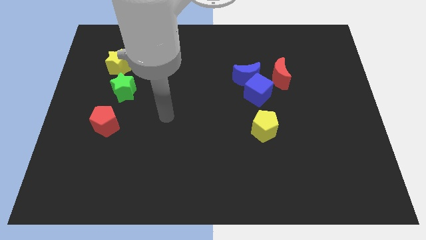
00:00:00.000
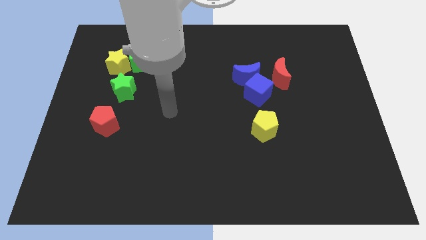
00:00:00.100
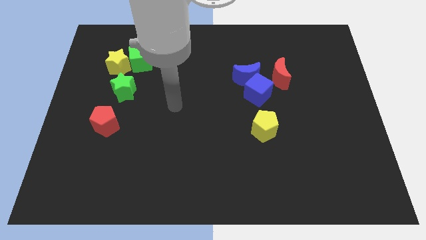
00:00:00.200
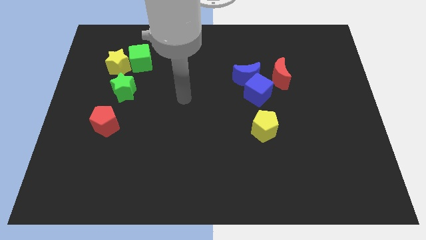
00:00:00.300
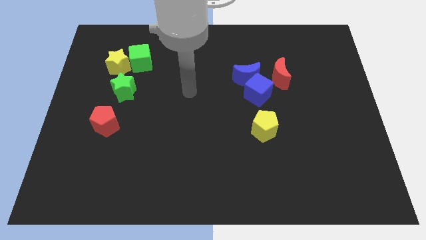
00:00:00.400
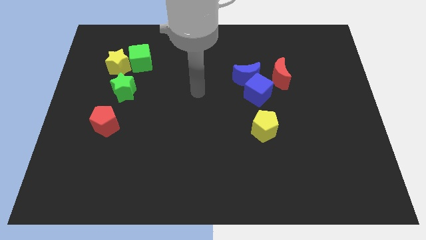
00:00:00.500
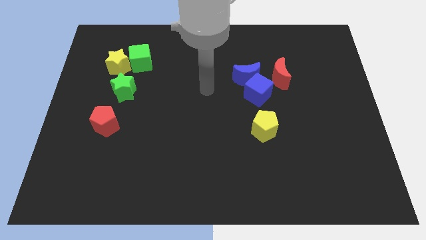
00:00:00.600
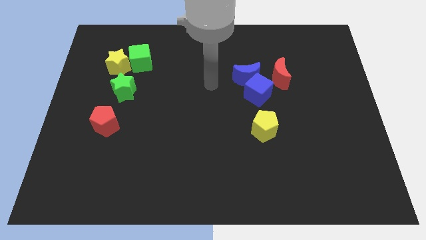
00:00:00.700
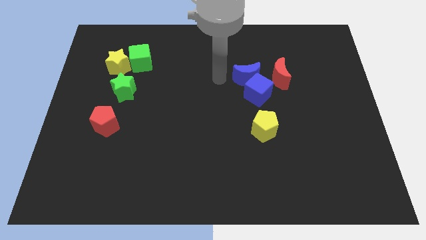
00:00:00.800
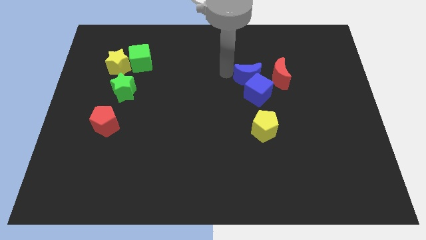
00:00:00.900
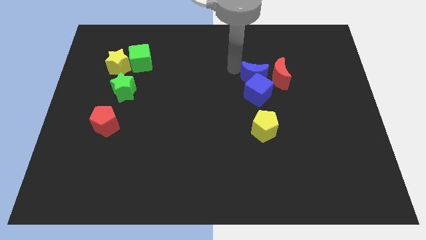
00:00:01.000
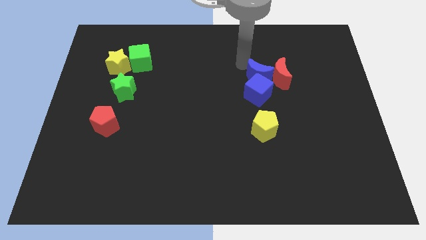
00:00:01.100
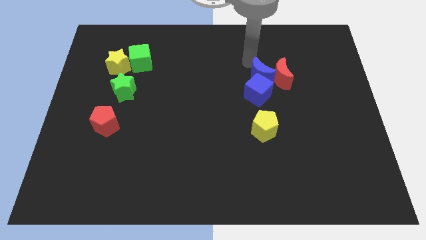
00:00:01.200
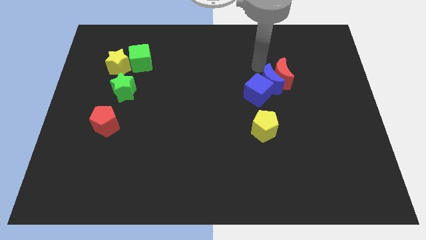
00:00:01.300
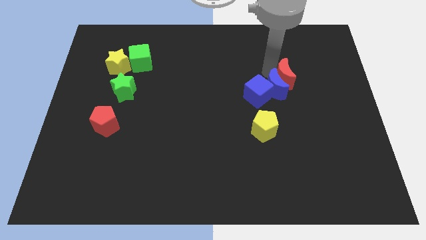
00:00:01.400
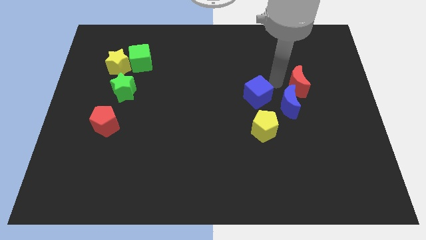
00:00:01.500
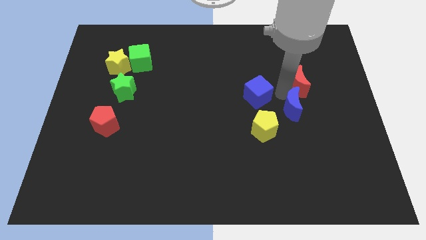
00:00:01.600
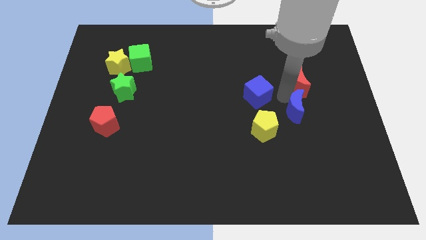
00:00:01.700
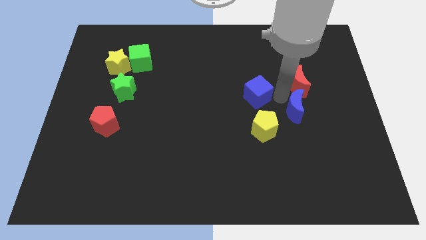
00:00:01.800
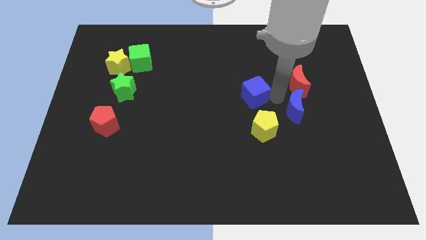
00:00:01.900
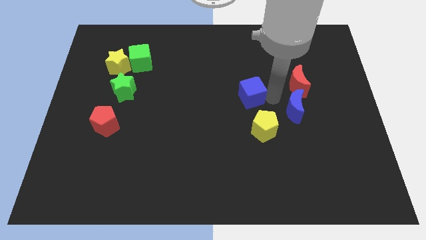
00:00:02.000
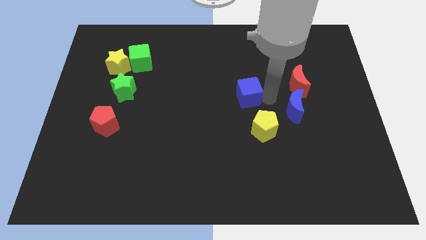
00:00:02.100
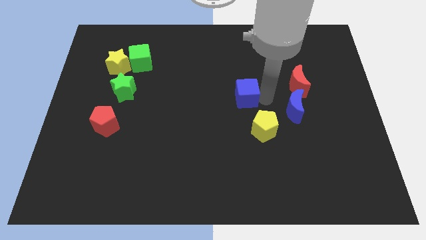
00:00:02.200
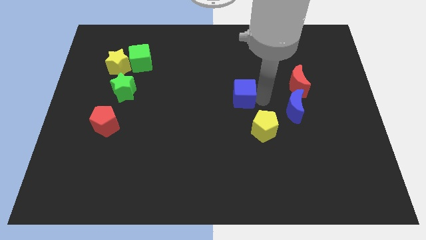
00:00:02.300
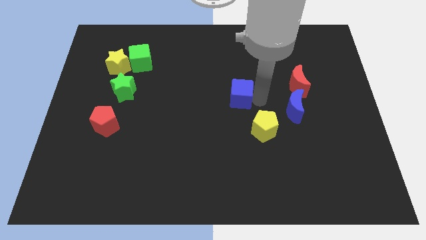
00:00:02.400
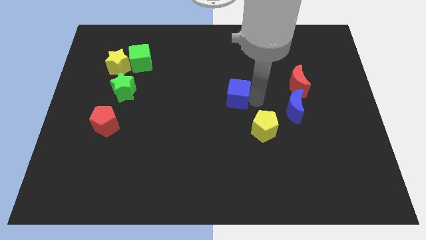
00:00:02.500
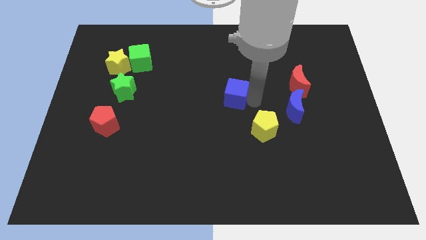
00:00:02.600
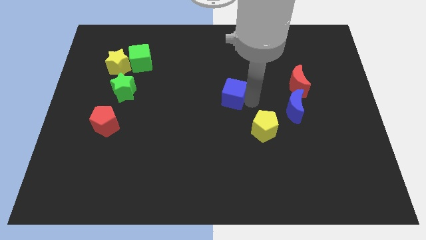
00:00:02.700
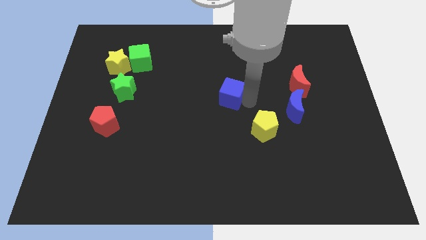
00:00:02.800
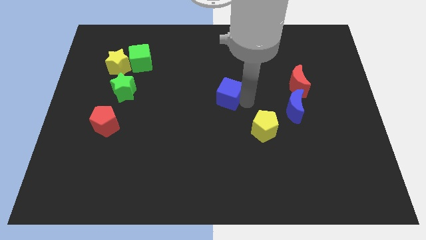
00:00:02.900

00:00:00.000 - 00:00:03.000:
slide the blue cube to the left a bit

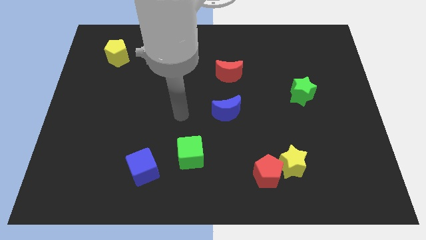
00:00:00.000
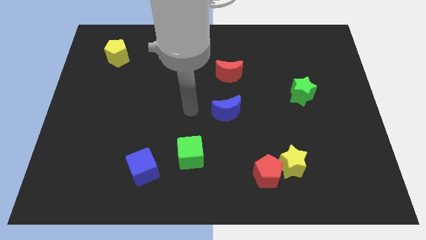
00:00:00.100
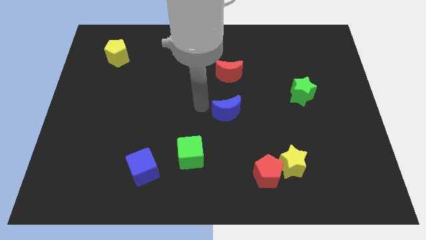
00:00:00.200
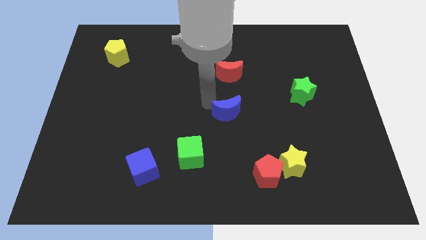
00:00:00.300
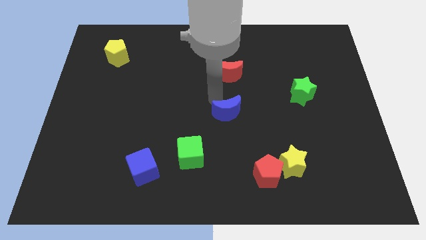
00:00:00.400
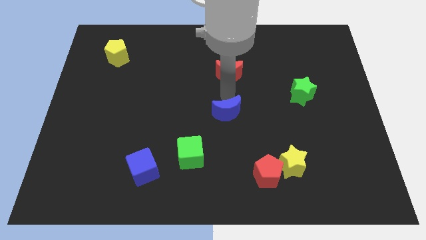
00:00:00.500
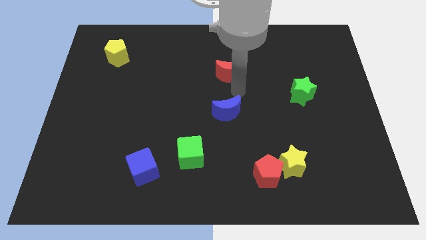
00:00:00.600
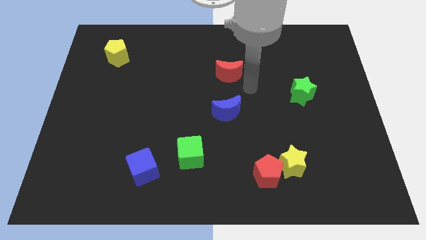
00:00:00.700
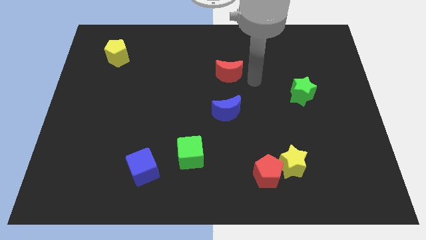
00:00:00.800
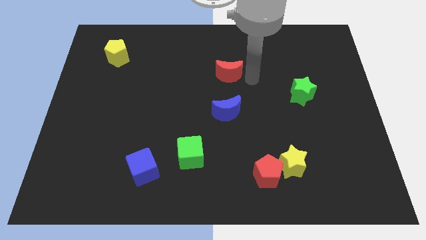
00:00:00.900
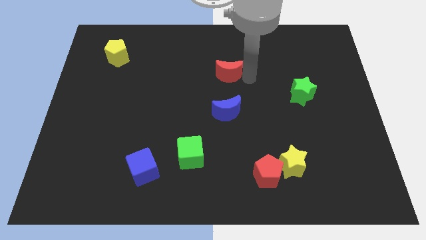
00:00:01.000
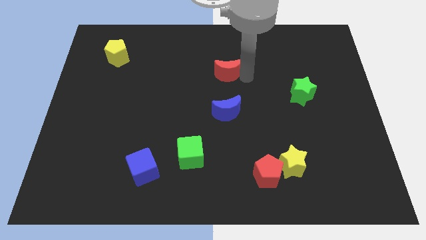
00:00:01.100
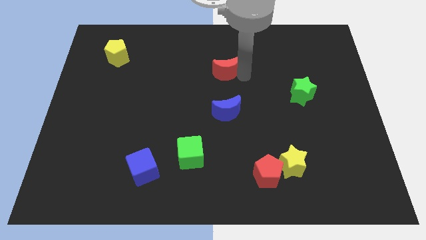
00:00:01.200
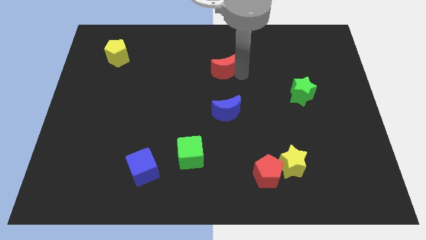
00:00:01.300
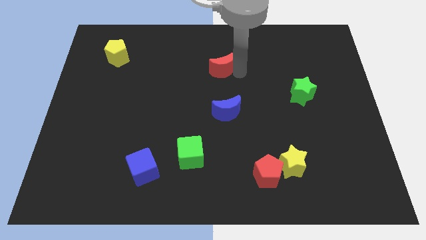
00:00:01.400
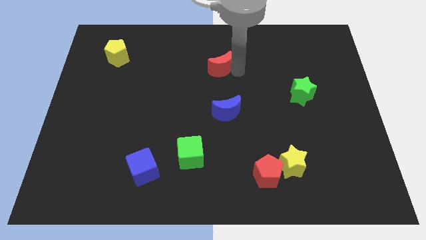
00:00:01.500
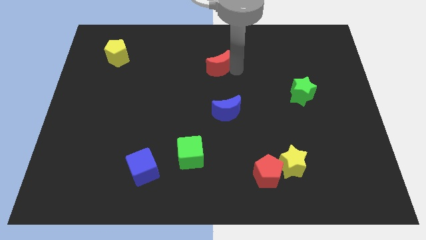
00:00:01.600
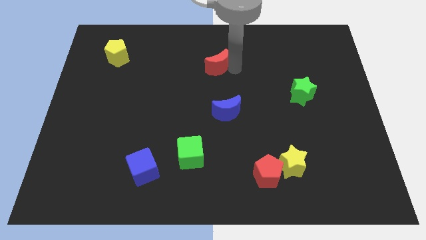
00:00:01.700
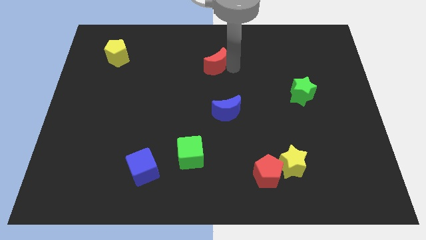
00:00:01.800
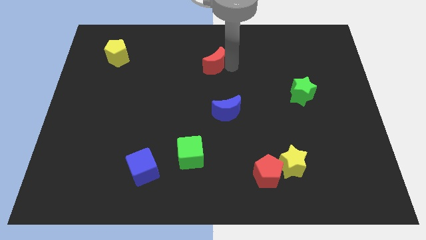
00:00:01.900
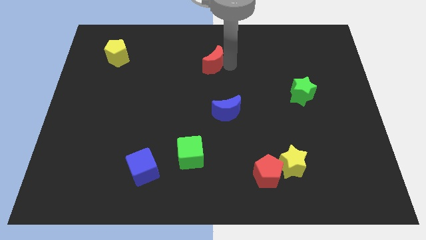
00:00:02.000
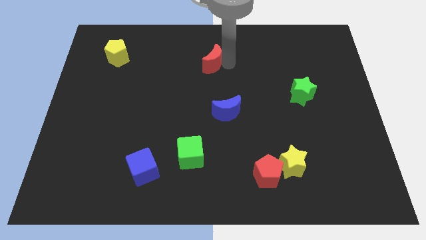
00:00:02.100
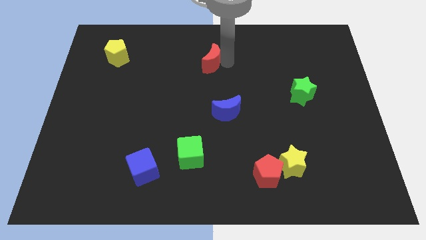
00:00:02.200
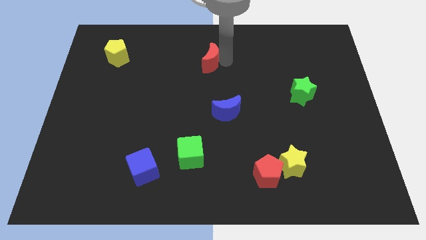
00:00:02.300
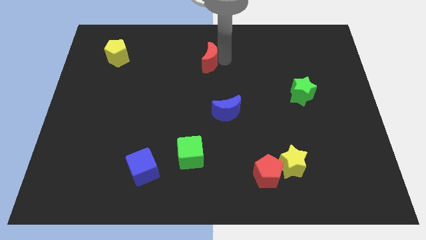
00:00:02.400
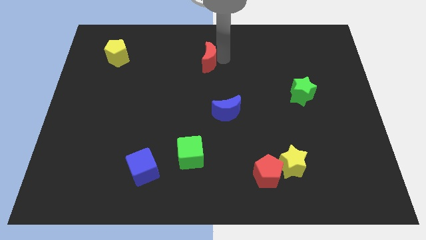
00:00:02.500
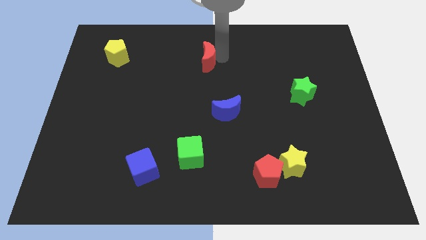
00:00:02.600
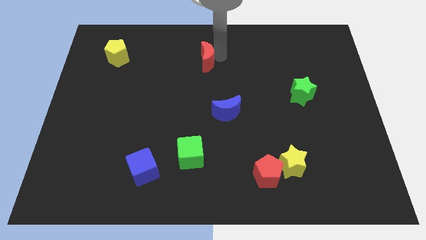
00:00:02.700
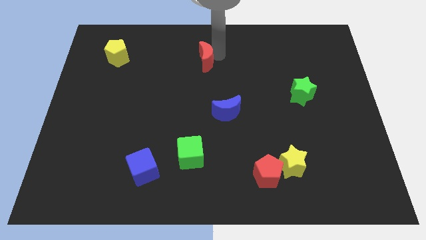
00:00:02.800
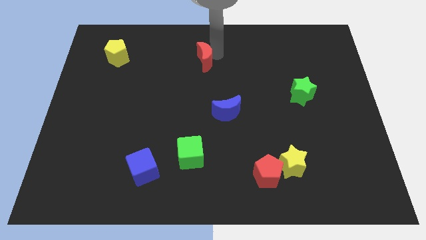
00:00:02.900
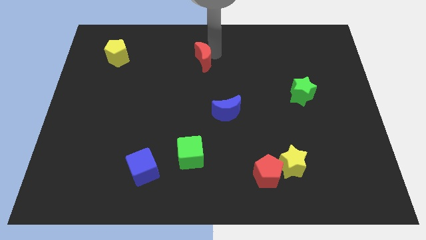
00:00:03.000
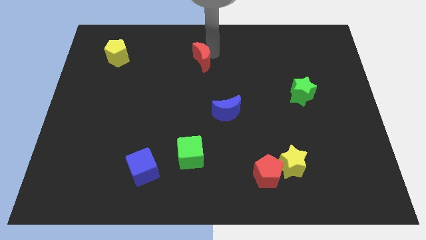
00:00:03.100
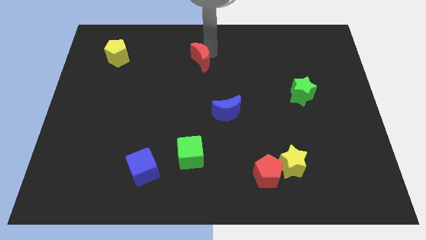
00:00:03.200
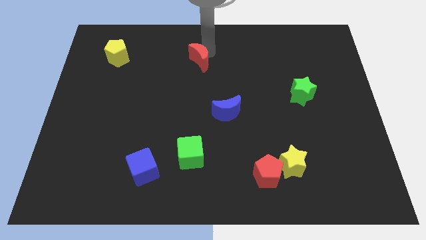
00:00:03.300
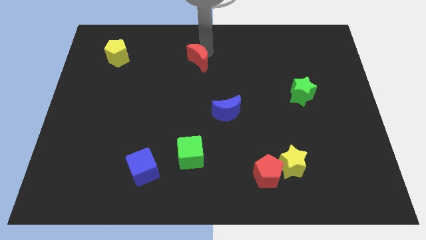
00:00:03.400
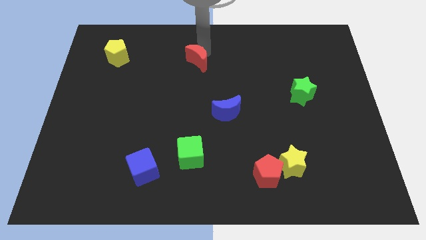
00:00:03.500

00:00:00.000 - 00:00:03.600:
slightly push the red moon to the left

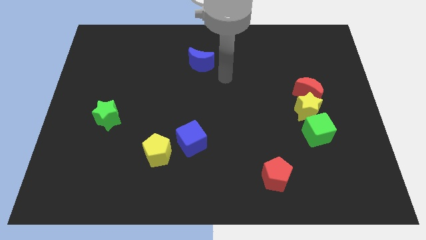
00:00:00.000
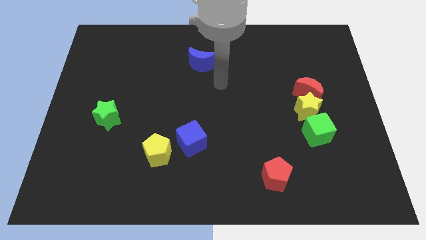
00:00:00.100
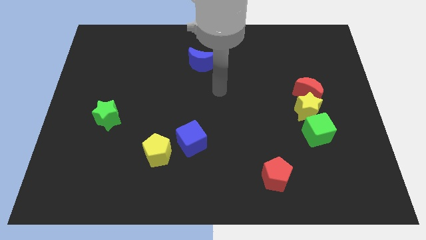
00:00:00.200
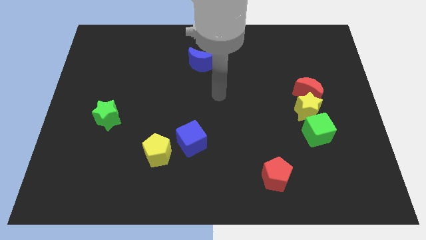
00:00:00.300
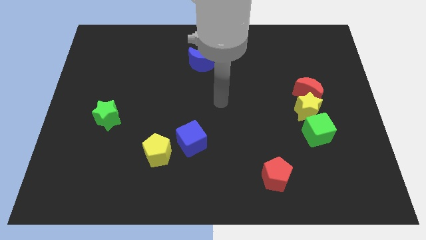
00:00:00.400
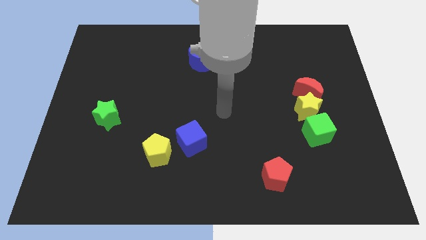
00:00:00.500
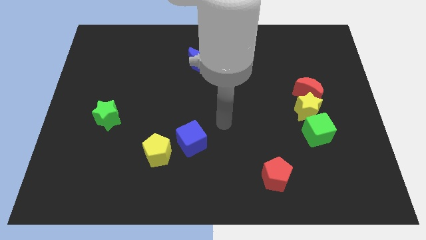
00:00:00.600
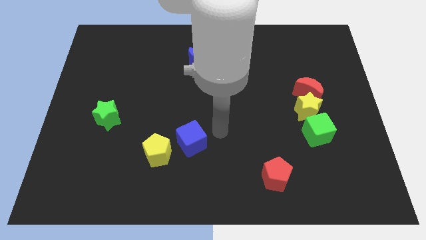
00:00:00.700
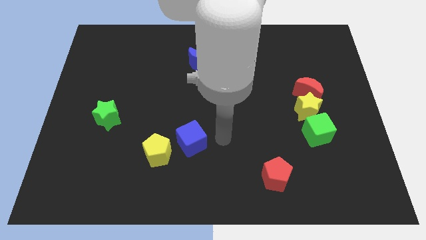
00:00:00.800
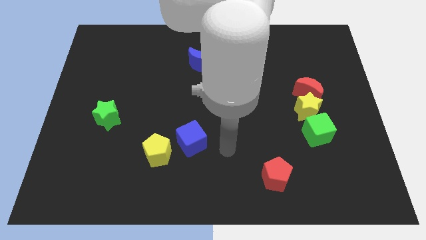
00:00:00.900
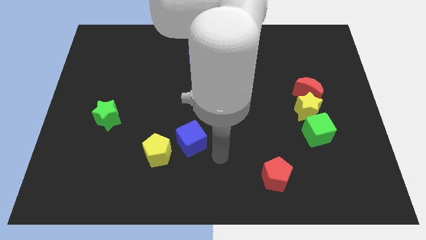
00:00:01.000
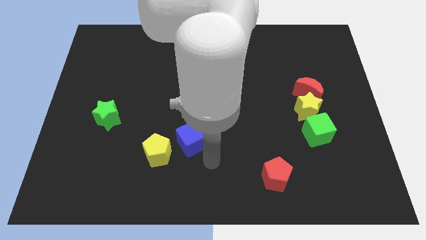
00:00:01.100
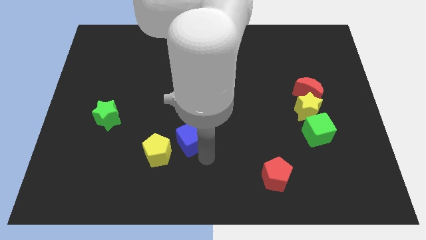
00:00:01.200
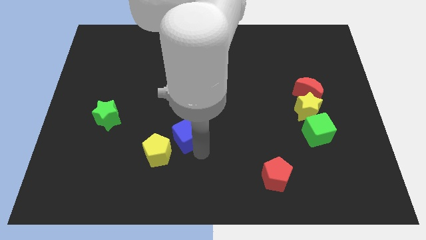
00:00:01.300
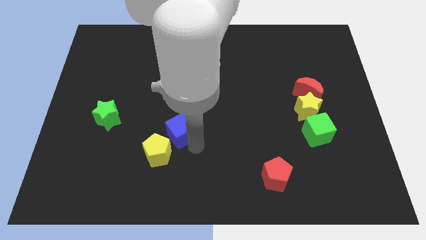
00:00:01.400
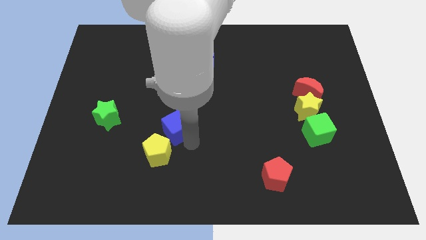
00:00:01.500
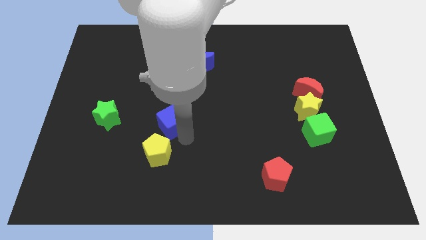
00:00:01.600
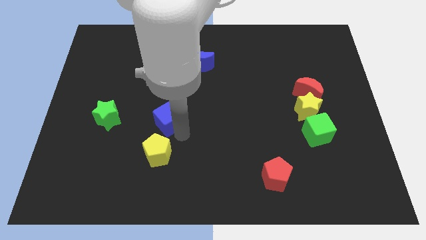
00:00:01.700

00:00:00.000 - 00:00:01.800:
push the blue cube a little bit up and to the left diagonally
